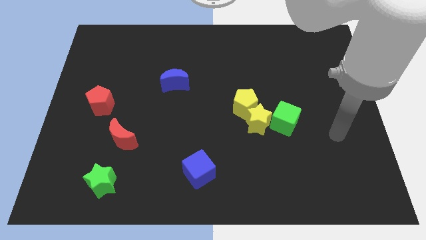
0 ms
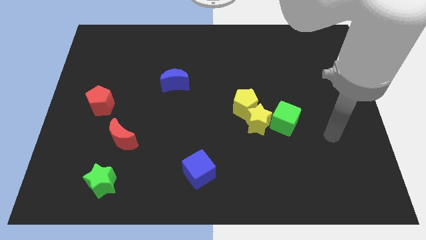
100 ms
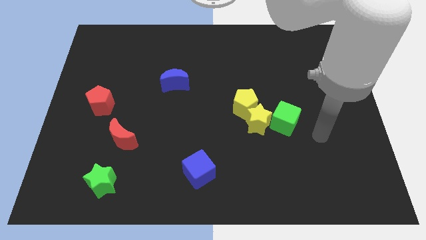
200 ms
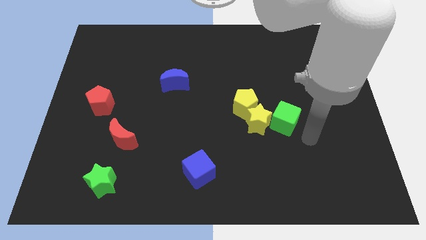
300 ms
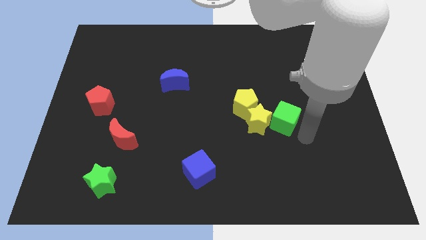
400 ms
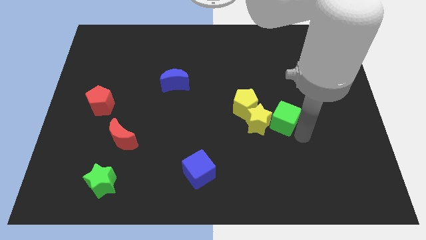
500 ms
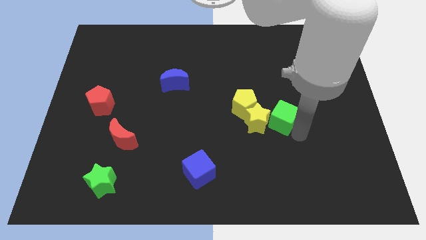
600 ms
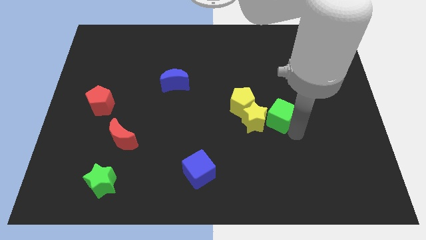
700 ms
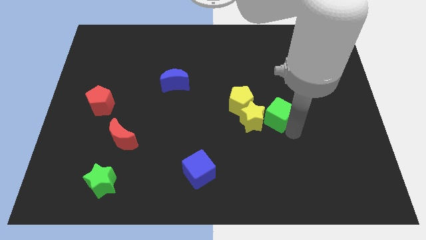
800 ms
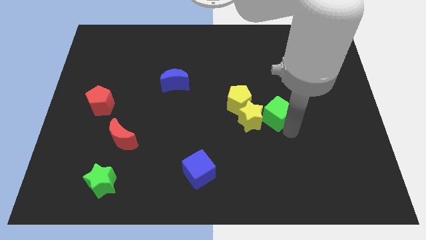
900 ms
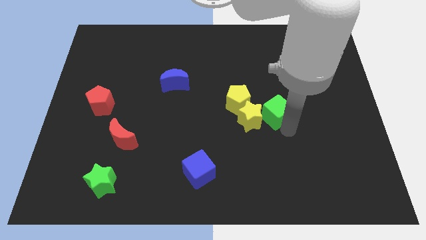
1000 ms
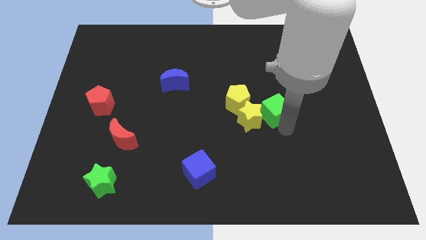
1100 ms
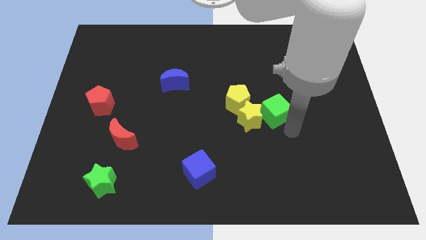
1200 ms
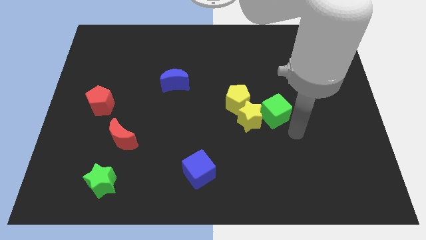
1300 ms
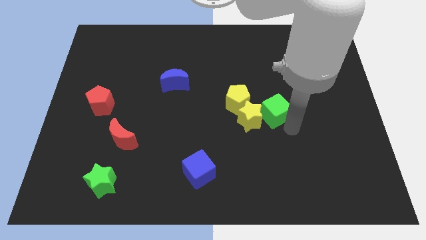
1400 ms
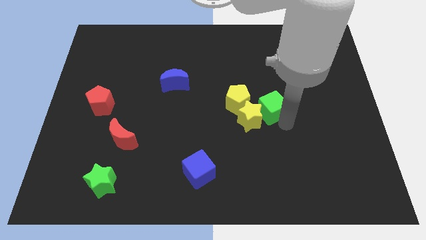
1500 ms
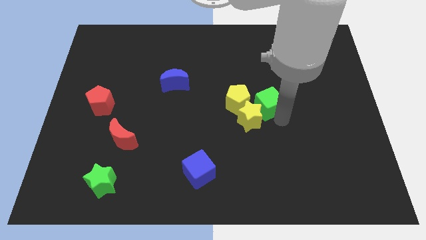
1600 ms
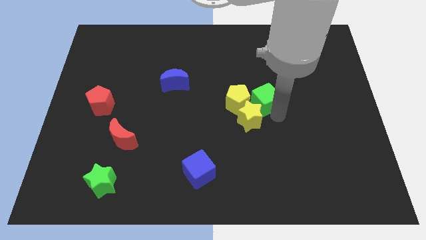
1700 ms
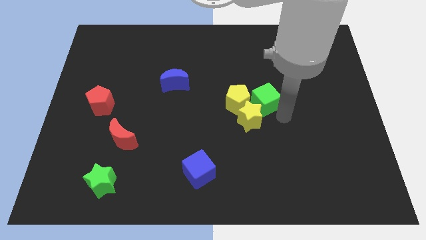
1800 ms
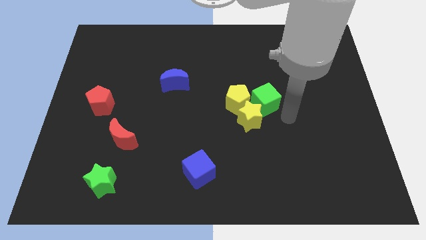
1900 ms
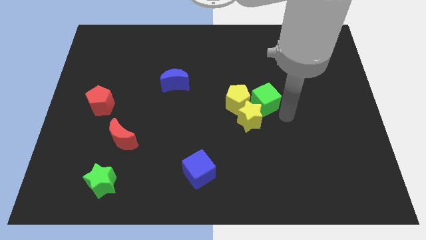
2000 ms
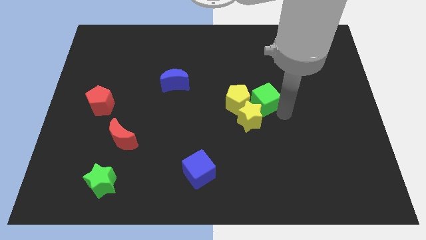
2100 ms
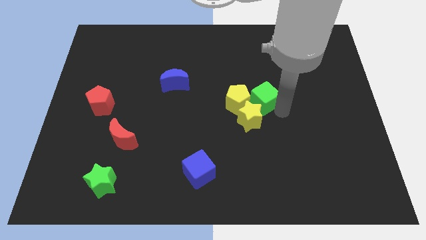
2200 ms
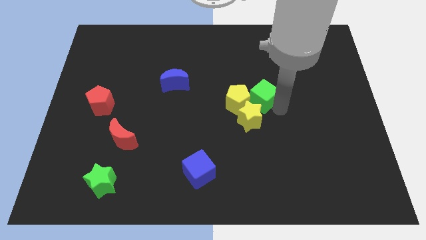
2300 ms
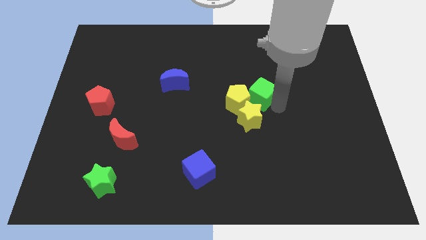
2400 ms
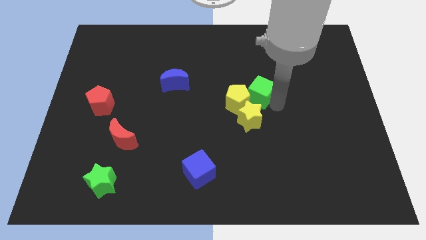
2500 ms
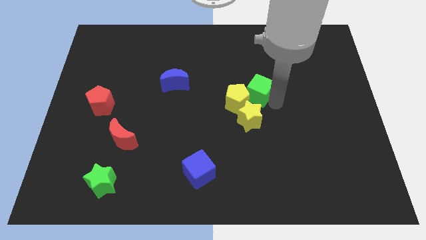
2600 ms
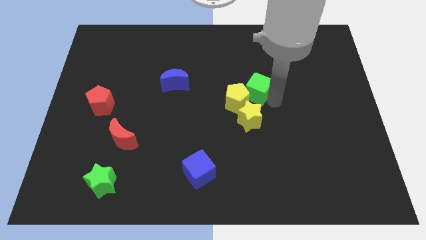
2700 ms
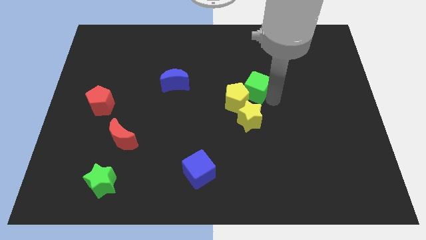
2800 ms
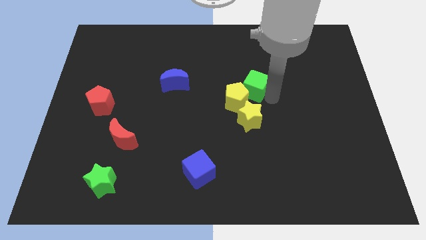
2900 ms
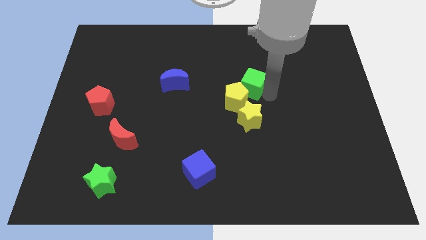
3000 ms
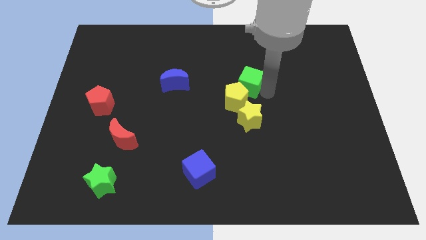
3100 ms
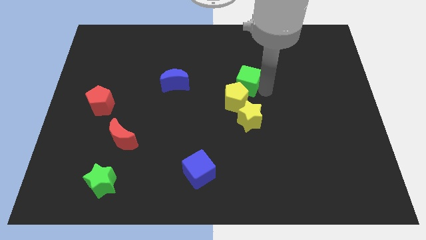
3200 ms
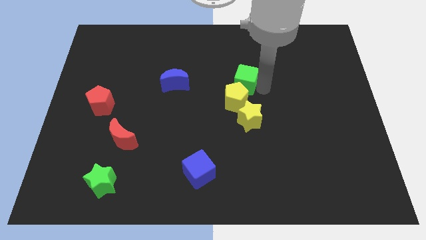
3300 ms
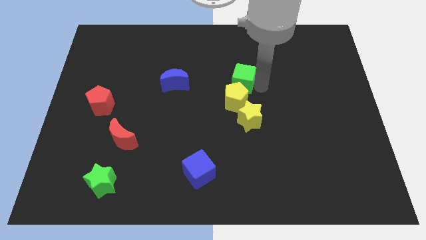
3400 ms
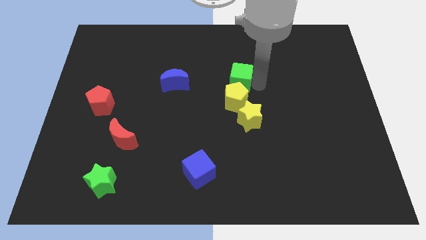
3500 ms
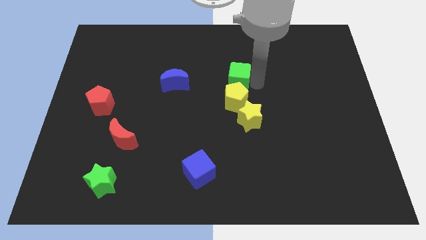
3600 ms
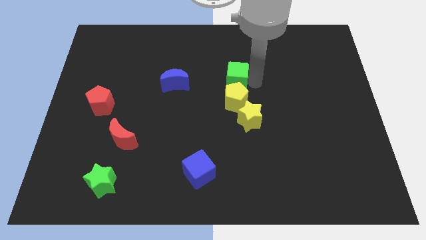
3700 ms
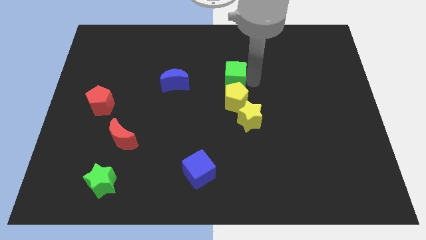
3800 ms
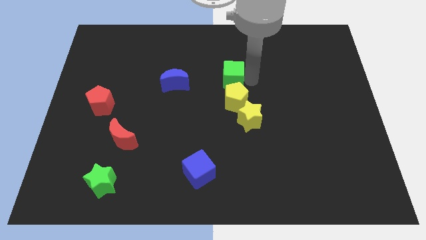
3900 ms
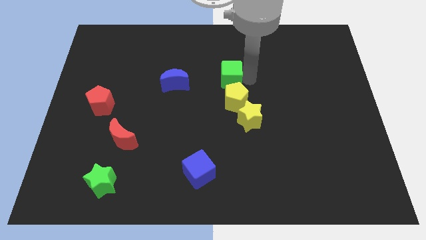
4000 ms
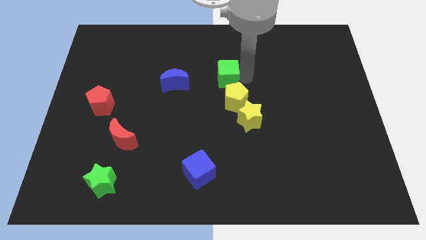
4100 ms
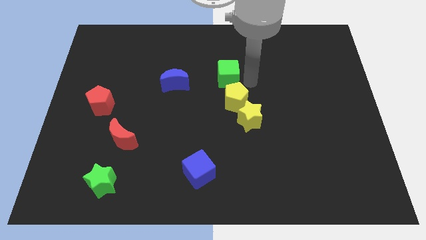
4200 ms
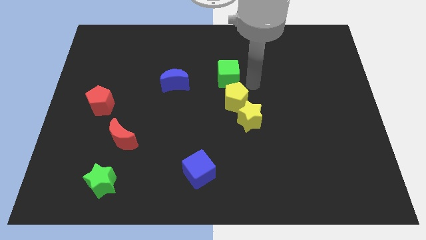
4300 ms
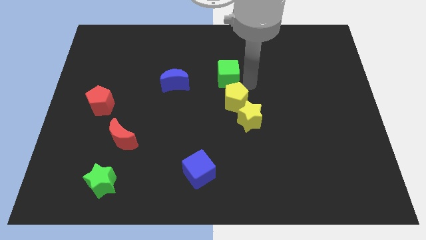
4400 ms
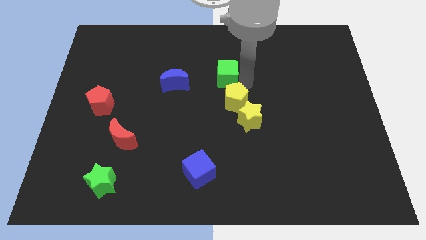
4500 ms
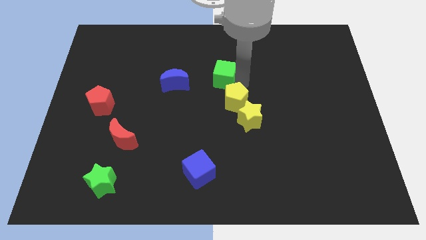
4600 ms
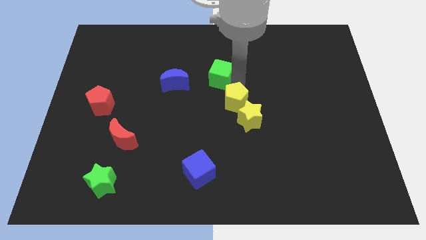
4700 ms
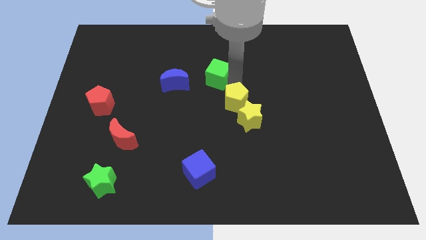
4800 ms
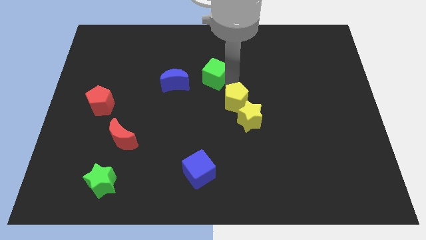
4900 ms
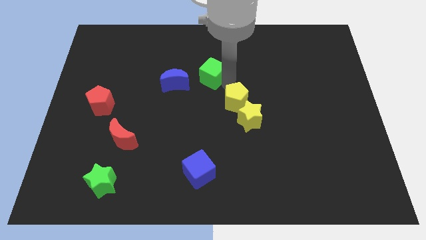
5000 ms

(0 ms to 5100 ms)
slide the green cube diagonally up and to the right of the blue moon

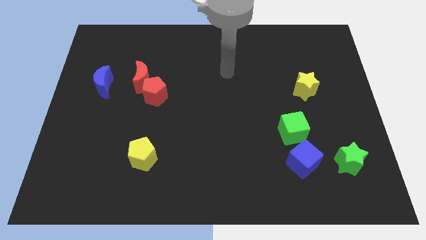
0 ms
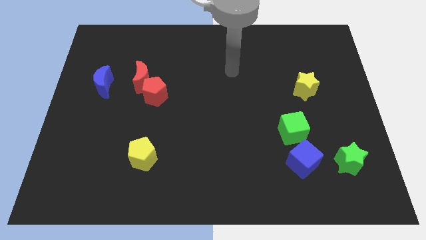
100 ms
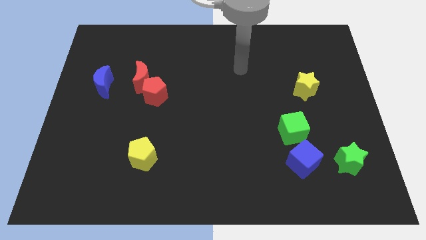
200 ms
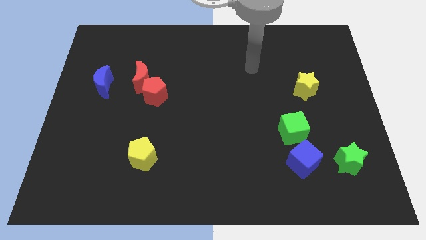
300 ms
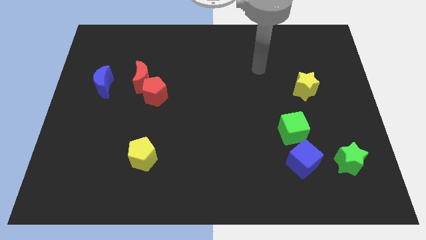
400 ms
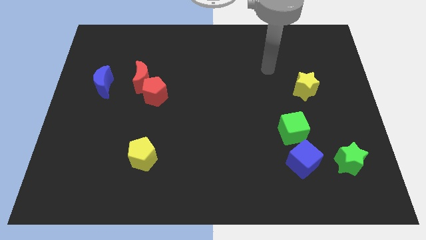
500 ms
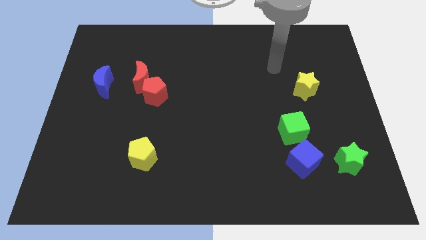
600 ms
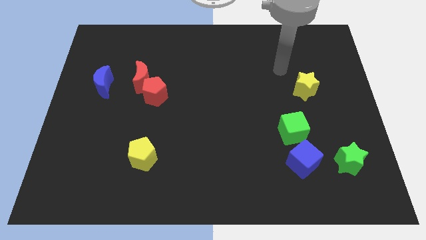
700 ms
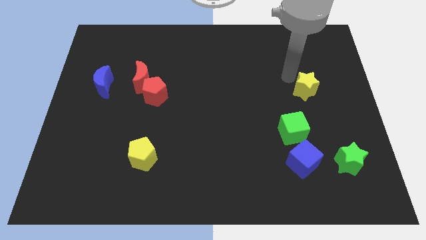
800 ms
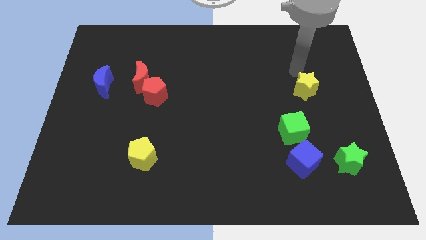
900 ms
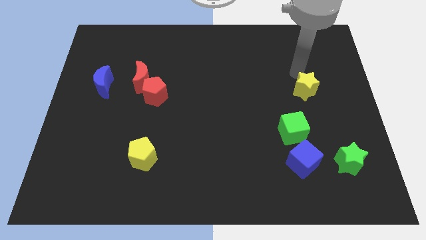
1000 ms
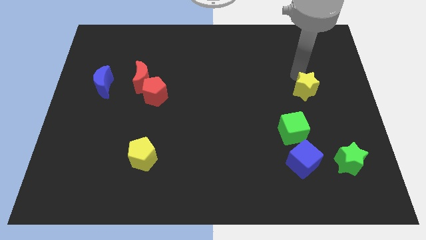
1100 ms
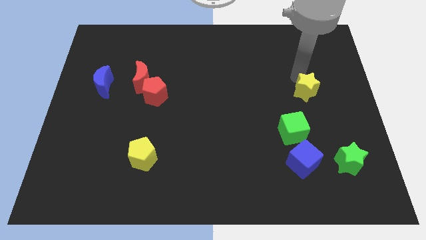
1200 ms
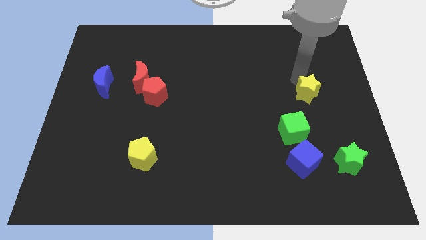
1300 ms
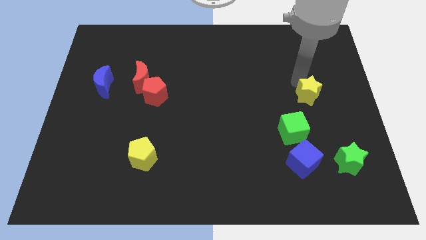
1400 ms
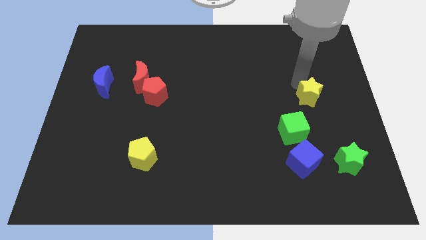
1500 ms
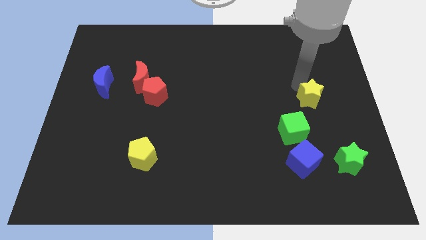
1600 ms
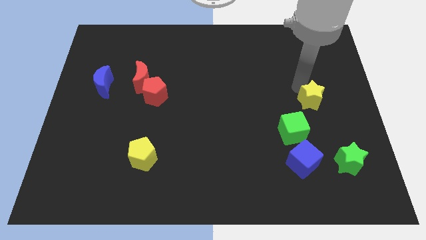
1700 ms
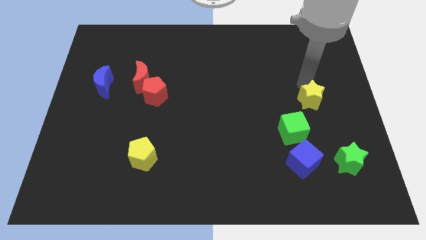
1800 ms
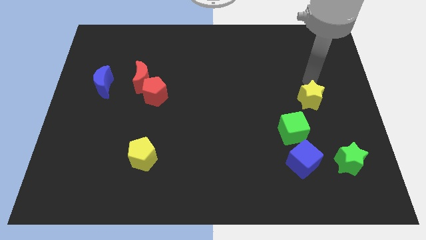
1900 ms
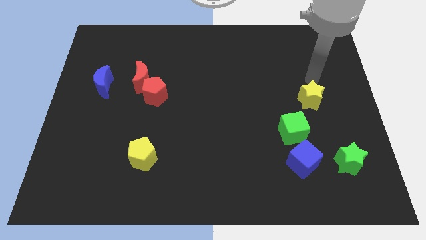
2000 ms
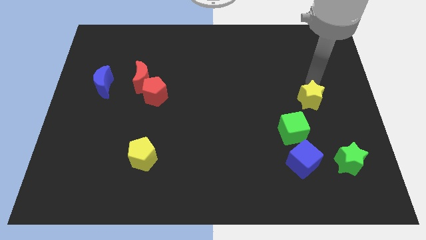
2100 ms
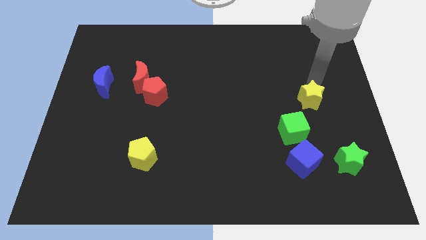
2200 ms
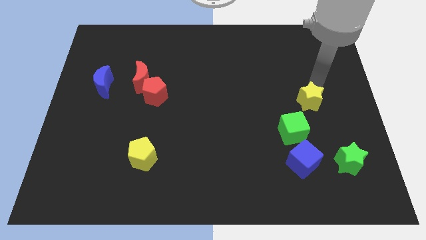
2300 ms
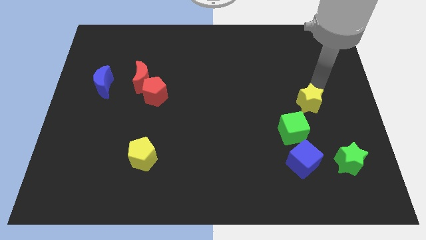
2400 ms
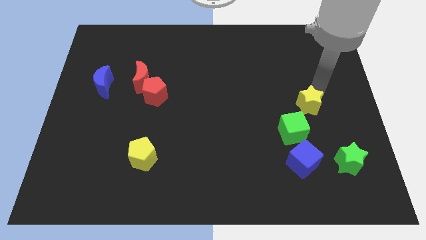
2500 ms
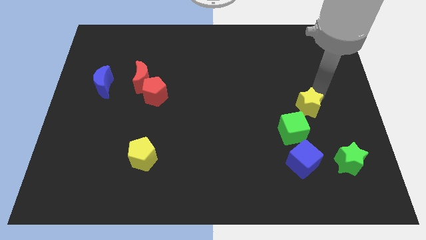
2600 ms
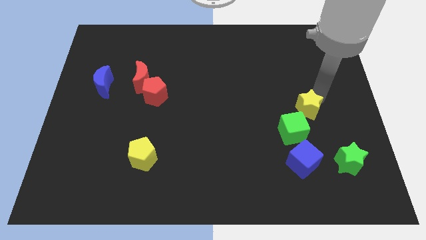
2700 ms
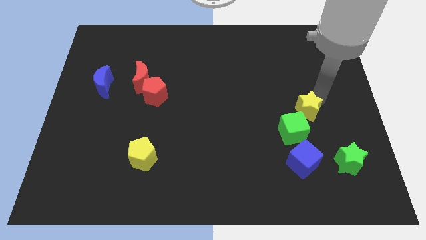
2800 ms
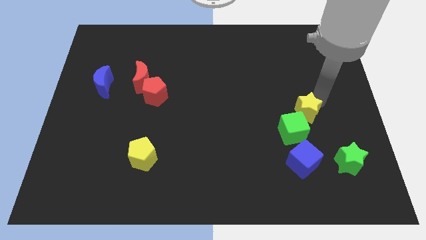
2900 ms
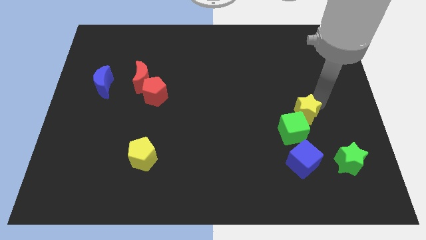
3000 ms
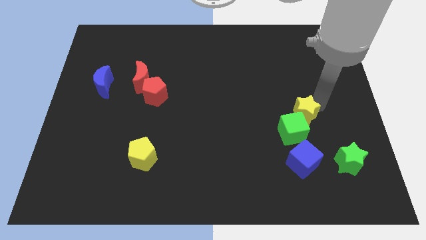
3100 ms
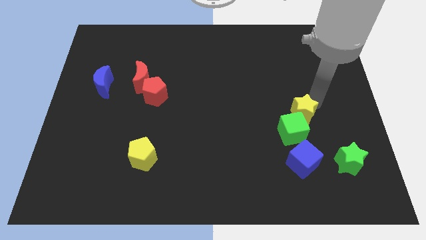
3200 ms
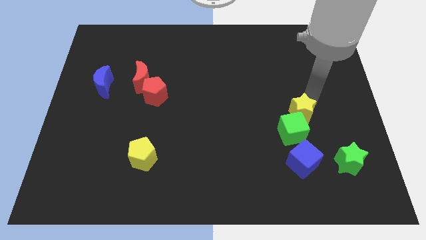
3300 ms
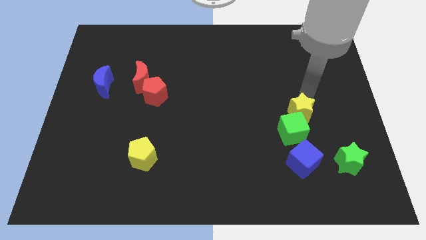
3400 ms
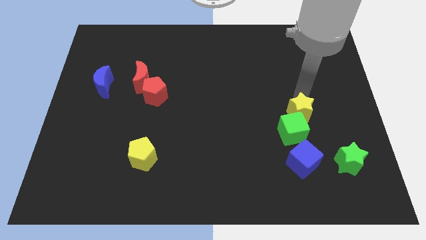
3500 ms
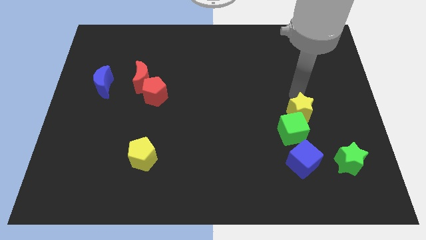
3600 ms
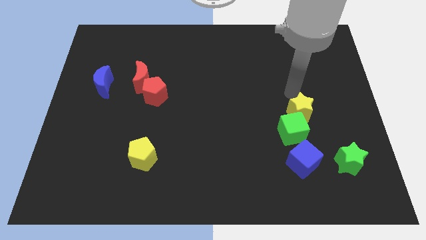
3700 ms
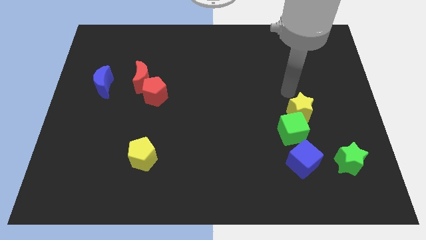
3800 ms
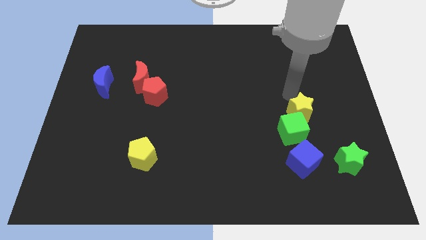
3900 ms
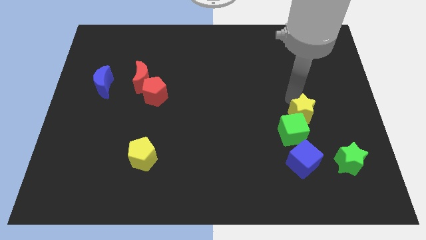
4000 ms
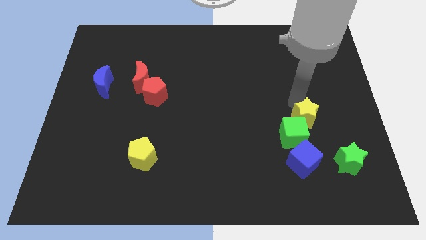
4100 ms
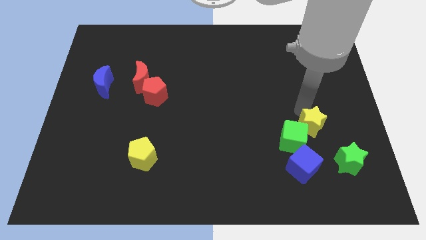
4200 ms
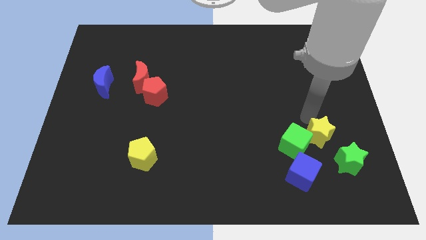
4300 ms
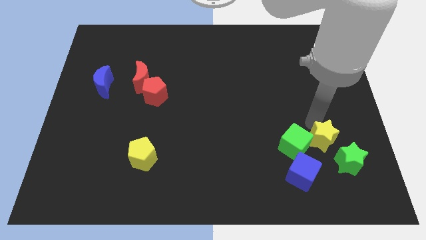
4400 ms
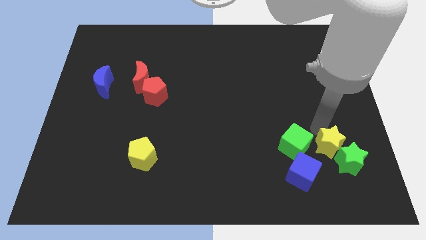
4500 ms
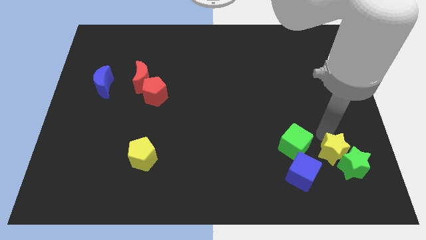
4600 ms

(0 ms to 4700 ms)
push the yellow star diagonally down and to the right of the green cube
